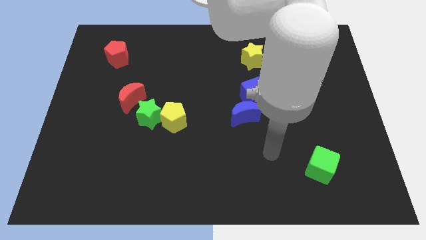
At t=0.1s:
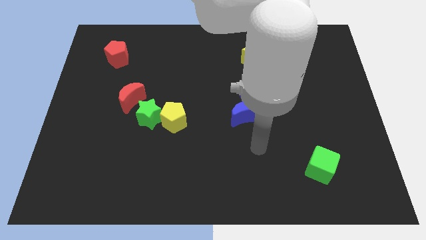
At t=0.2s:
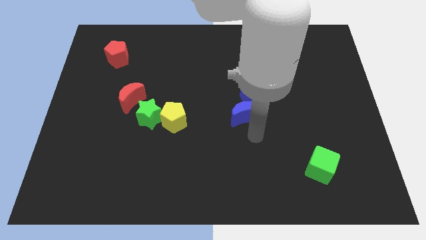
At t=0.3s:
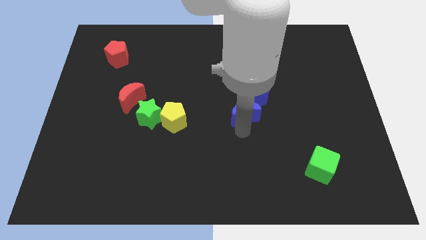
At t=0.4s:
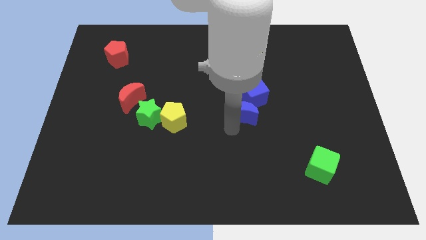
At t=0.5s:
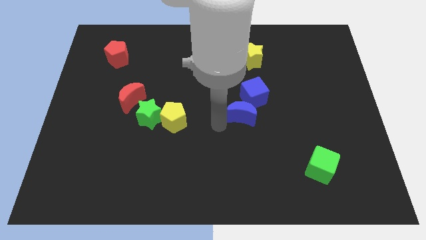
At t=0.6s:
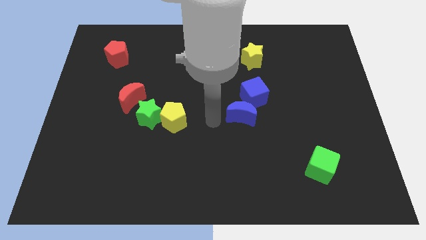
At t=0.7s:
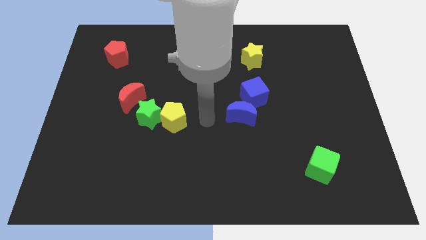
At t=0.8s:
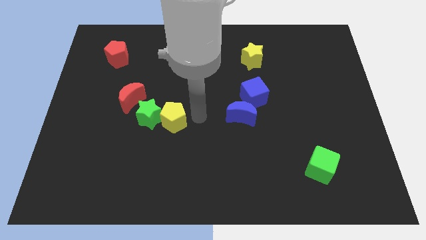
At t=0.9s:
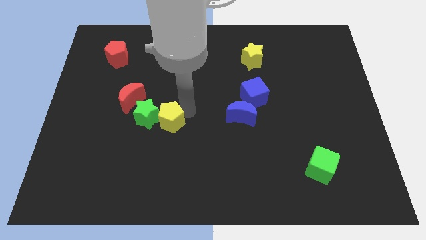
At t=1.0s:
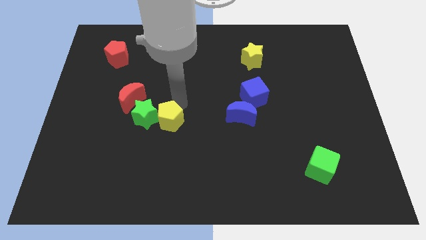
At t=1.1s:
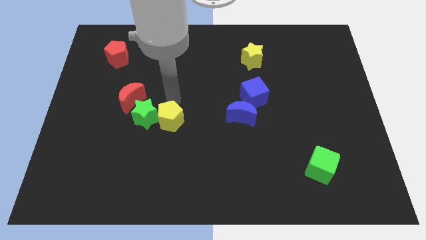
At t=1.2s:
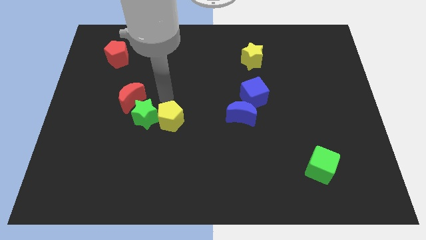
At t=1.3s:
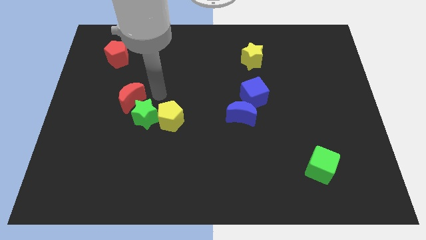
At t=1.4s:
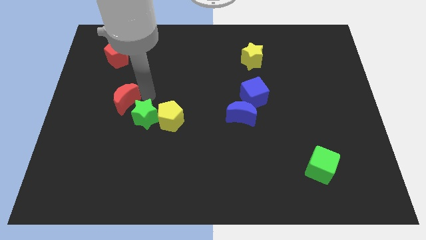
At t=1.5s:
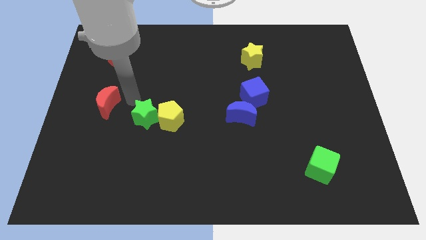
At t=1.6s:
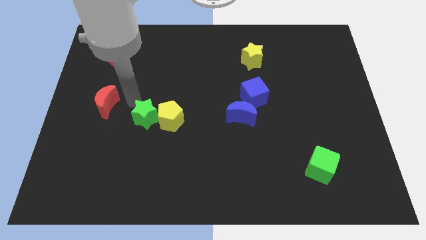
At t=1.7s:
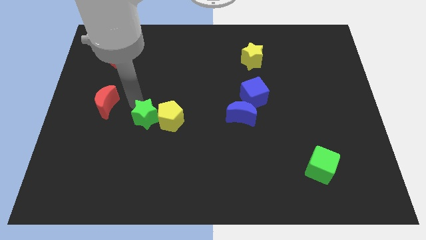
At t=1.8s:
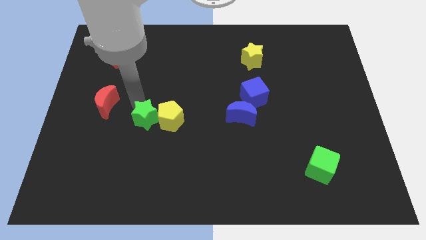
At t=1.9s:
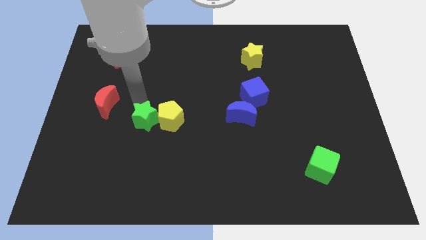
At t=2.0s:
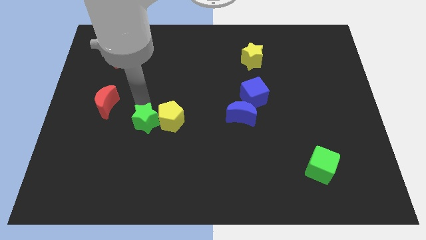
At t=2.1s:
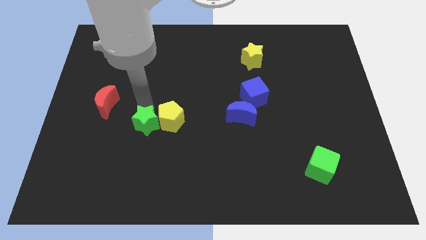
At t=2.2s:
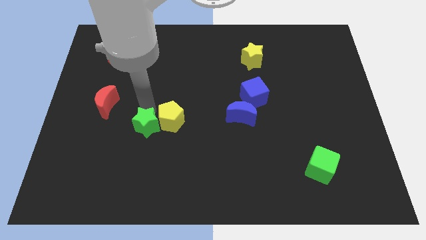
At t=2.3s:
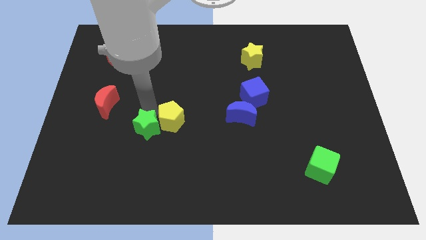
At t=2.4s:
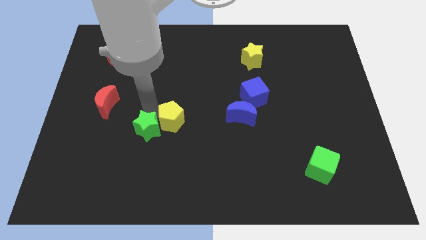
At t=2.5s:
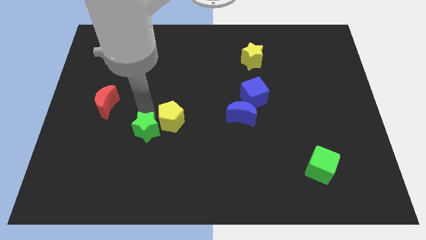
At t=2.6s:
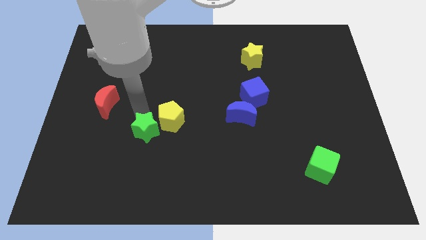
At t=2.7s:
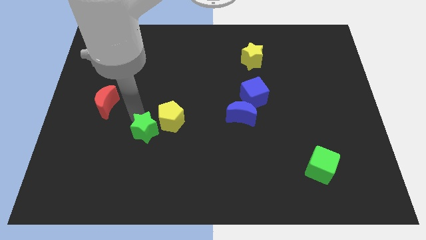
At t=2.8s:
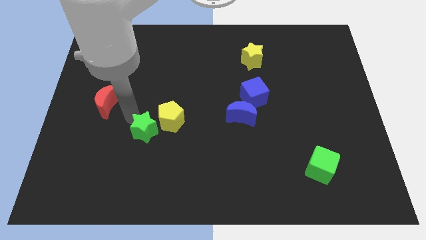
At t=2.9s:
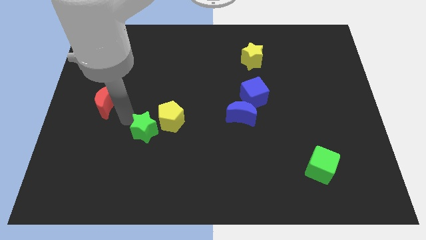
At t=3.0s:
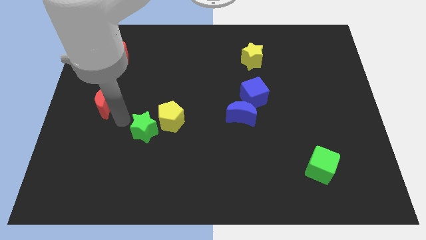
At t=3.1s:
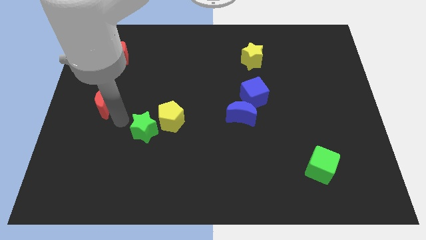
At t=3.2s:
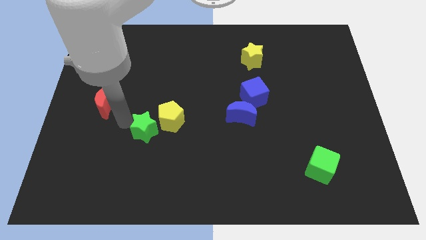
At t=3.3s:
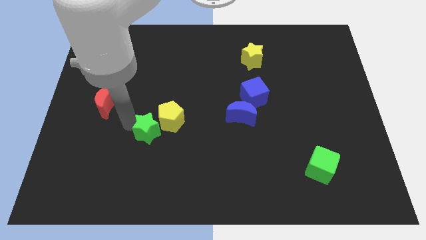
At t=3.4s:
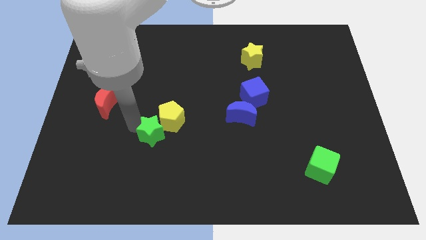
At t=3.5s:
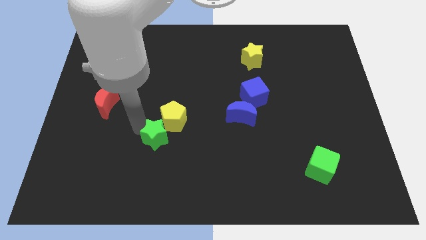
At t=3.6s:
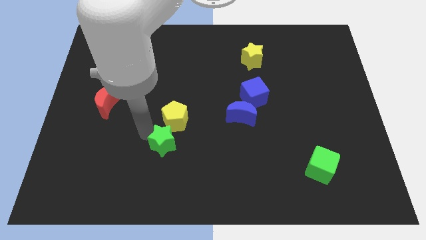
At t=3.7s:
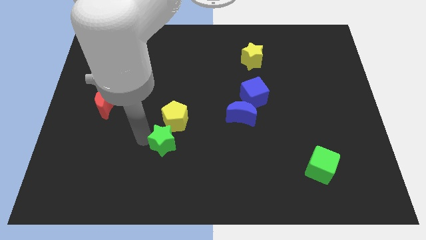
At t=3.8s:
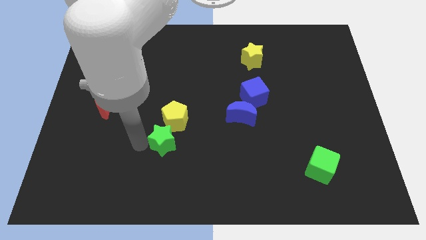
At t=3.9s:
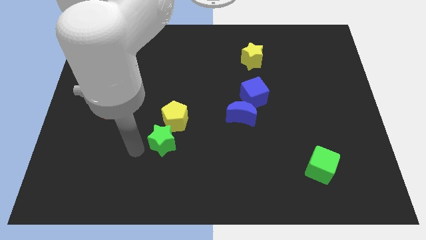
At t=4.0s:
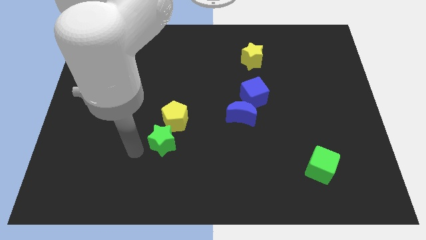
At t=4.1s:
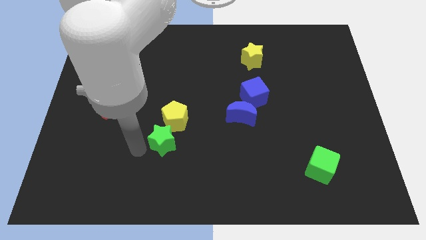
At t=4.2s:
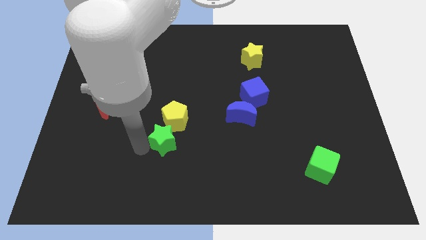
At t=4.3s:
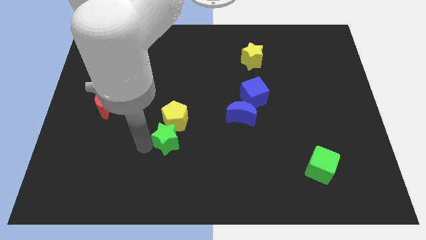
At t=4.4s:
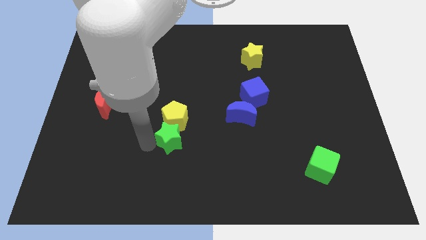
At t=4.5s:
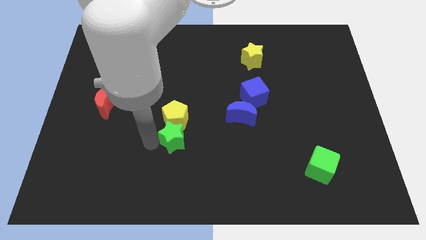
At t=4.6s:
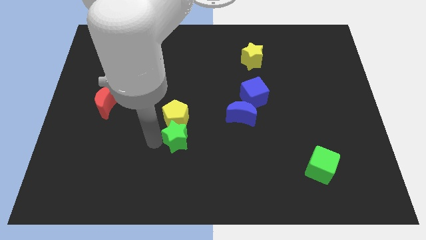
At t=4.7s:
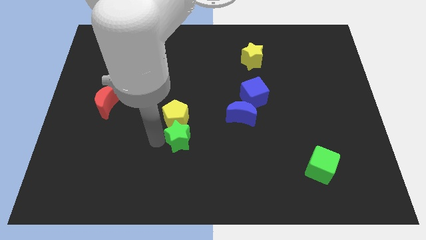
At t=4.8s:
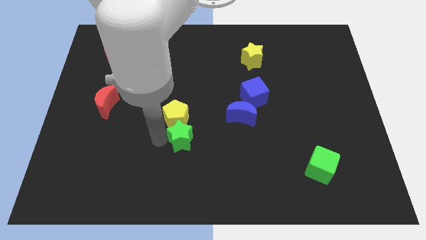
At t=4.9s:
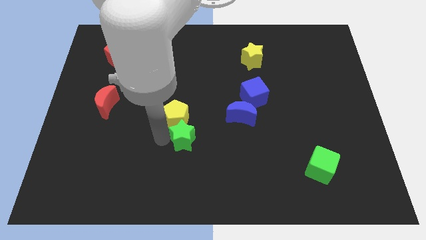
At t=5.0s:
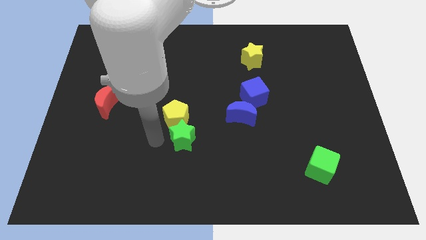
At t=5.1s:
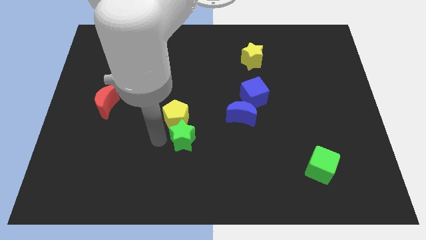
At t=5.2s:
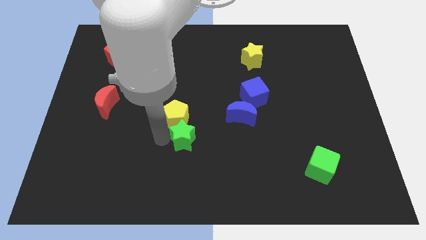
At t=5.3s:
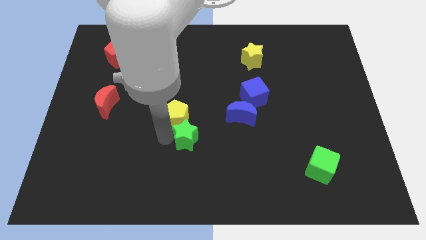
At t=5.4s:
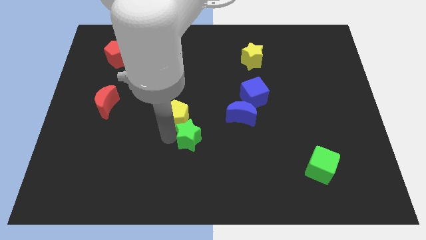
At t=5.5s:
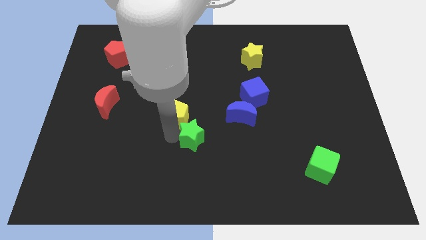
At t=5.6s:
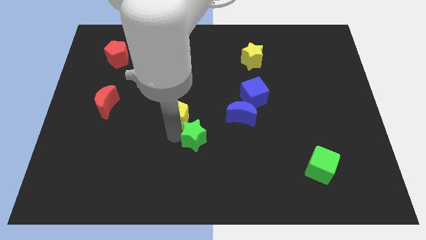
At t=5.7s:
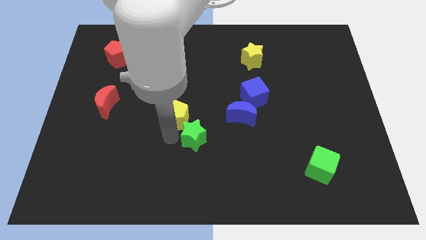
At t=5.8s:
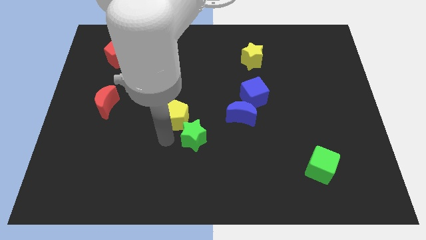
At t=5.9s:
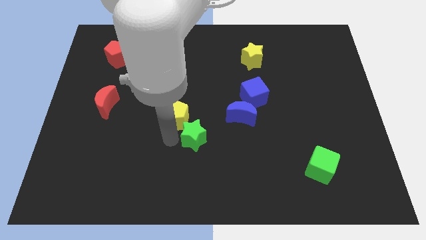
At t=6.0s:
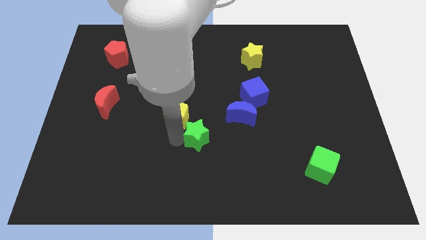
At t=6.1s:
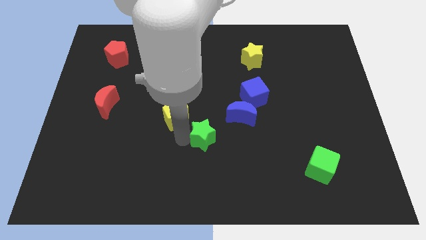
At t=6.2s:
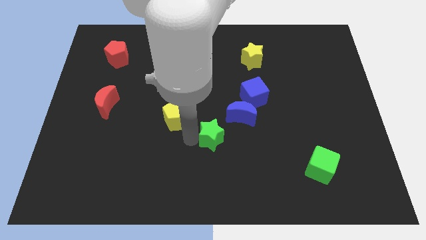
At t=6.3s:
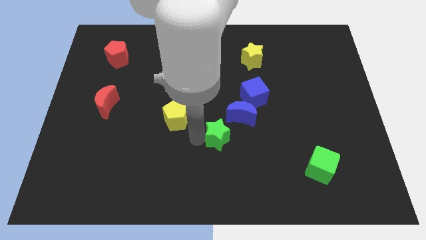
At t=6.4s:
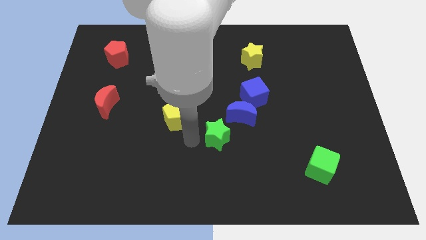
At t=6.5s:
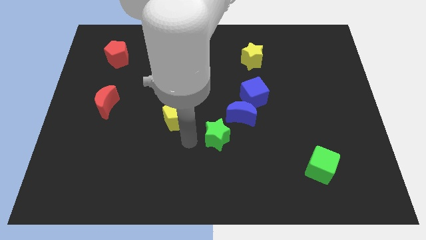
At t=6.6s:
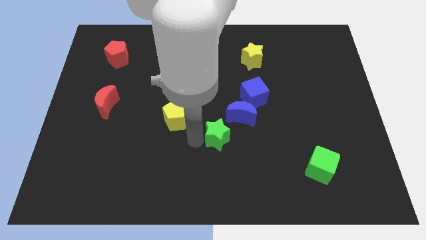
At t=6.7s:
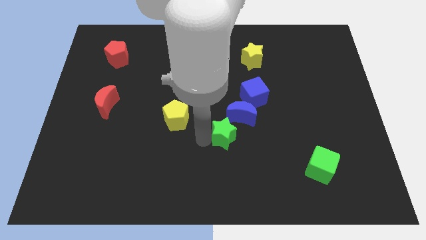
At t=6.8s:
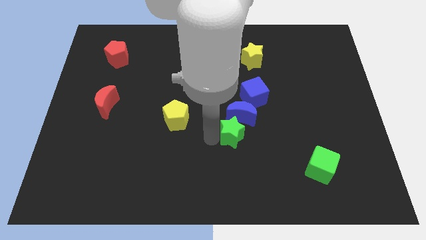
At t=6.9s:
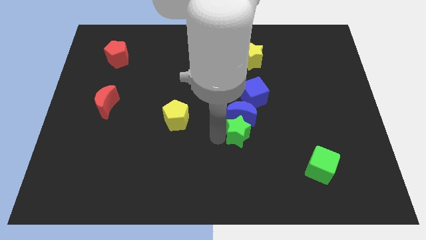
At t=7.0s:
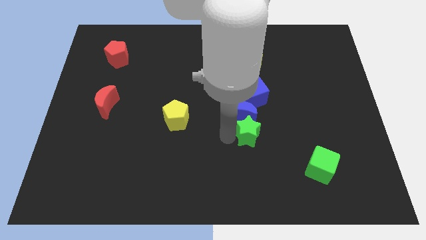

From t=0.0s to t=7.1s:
push the green star to the right

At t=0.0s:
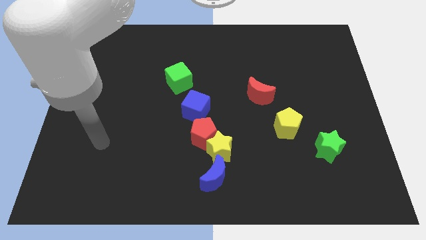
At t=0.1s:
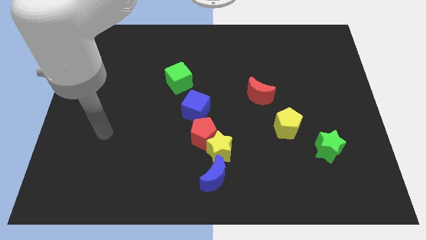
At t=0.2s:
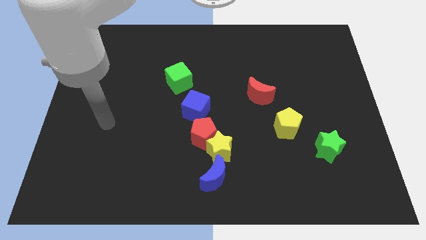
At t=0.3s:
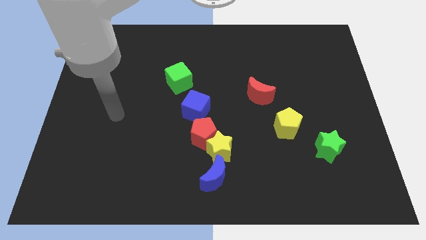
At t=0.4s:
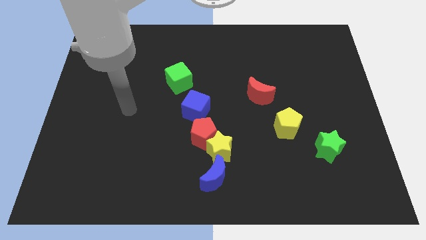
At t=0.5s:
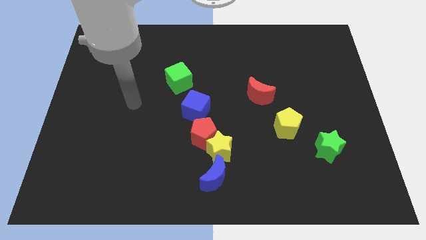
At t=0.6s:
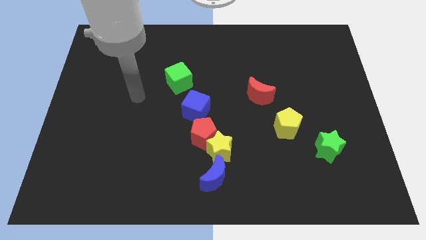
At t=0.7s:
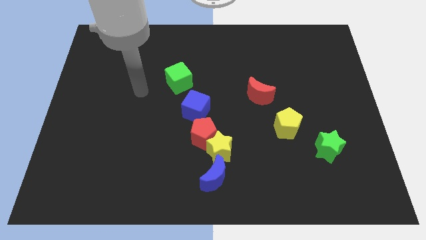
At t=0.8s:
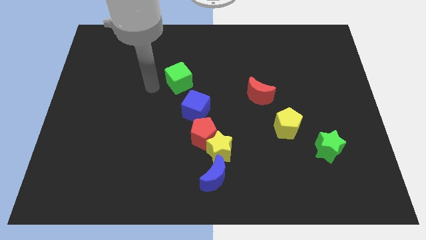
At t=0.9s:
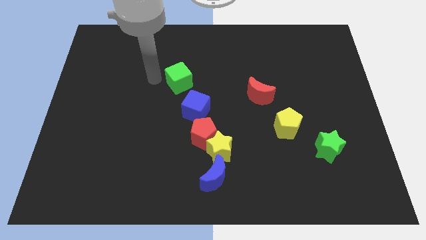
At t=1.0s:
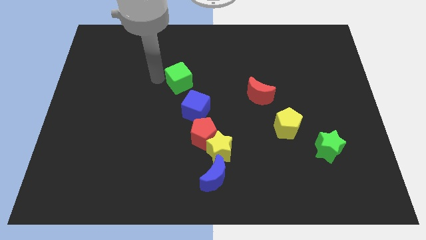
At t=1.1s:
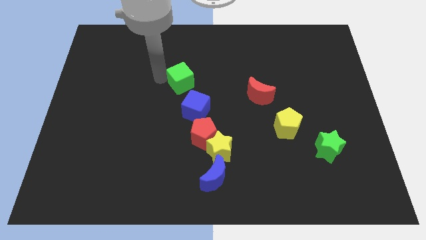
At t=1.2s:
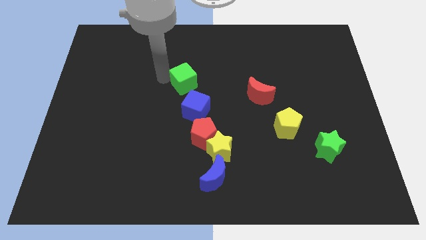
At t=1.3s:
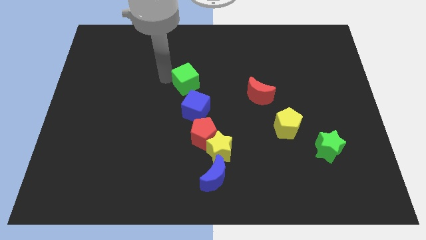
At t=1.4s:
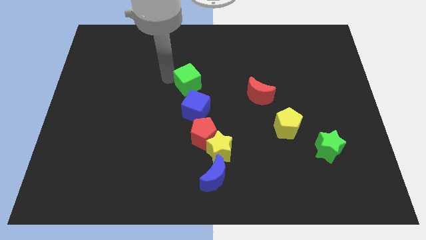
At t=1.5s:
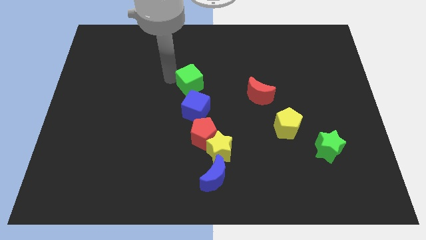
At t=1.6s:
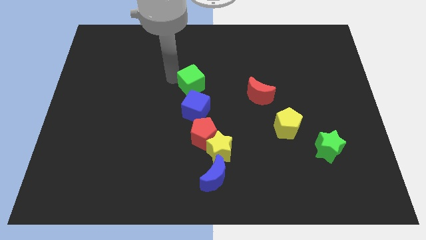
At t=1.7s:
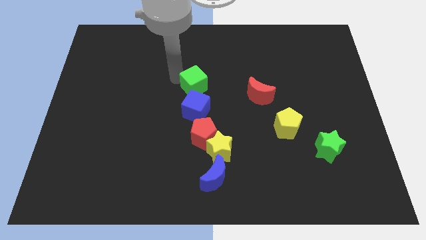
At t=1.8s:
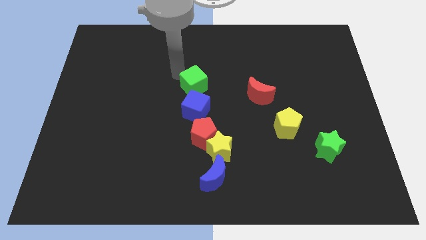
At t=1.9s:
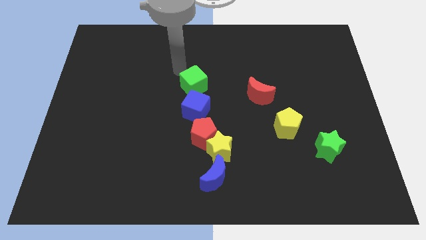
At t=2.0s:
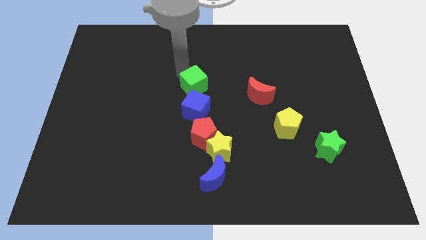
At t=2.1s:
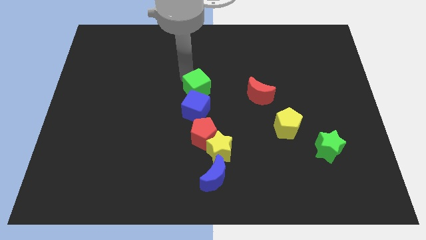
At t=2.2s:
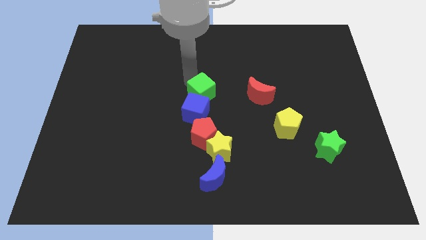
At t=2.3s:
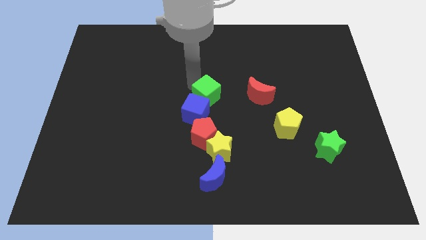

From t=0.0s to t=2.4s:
slightly slide the green cube downwards and right diagonally
